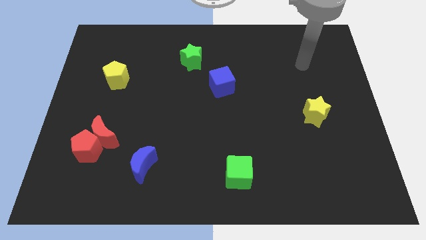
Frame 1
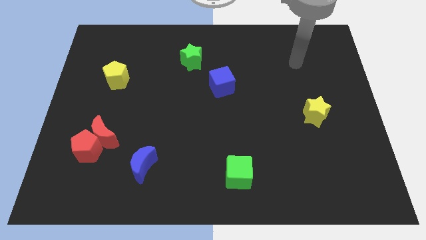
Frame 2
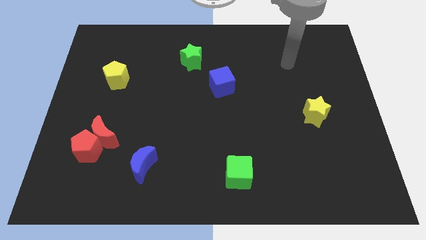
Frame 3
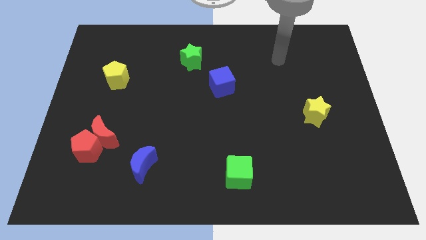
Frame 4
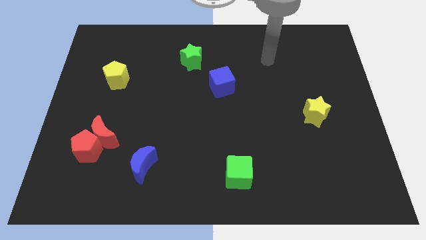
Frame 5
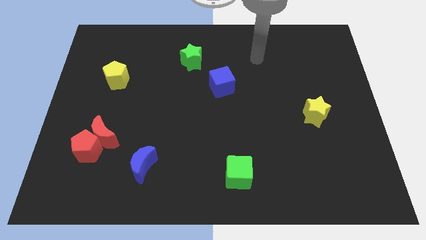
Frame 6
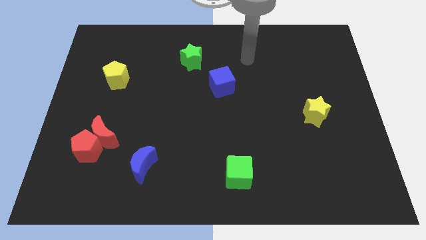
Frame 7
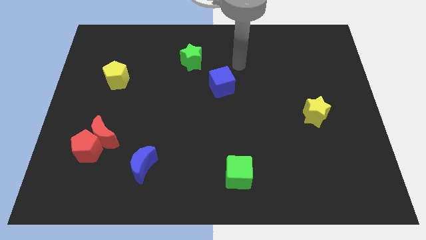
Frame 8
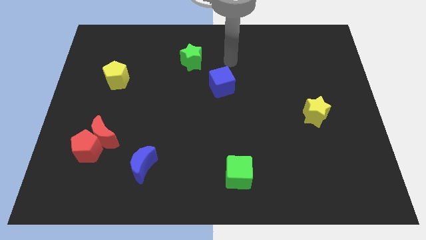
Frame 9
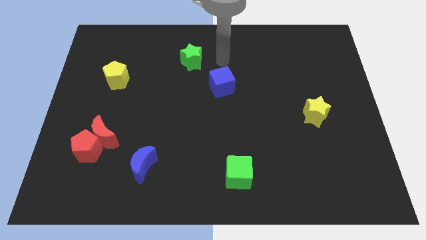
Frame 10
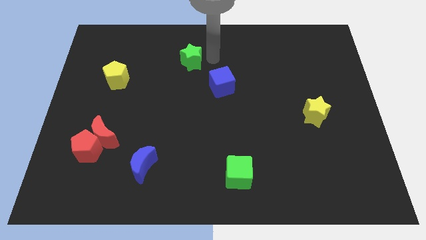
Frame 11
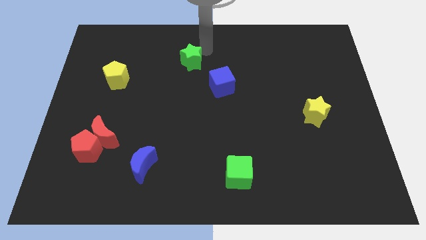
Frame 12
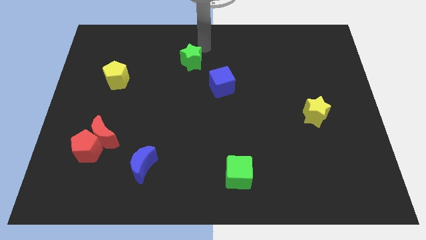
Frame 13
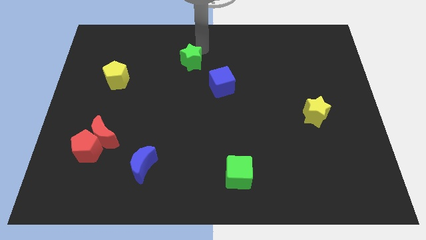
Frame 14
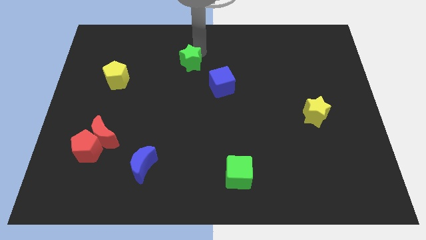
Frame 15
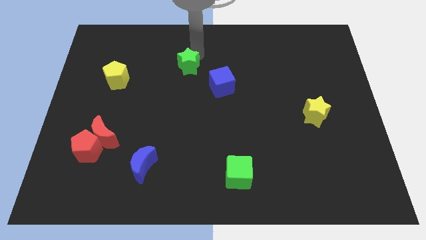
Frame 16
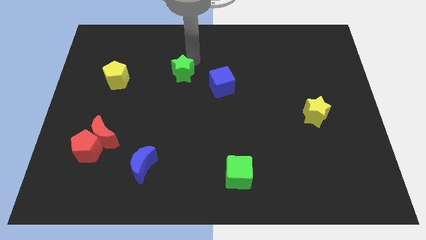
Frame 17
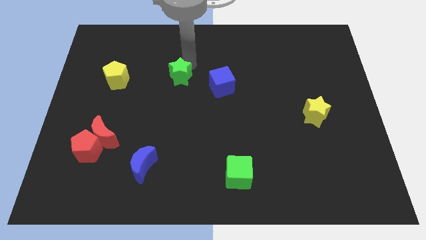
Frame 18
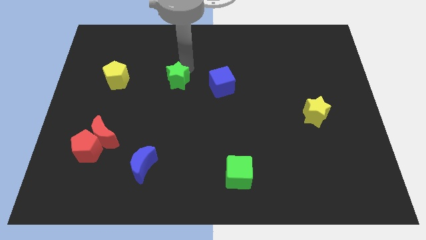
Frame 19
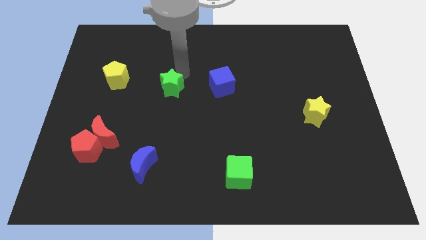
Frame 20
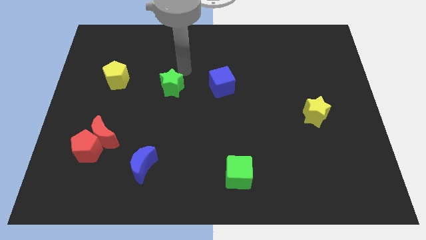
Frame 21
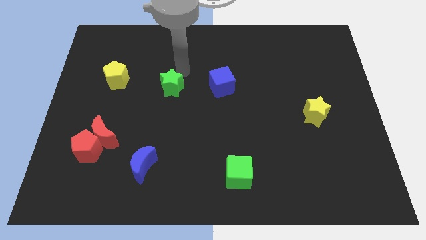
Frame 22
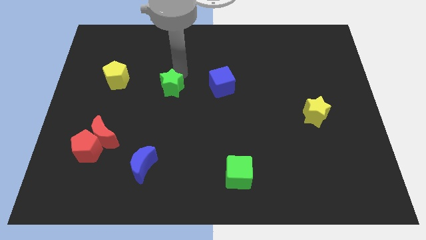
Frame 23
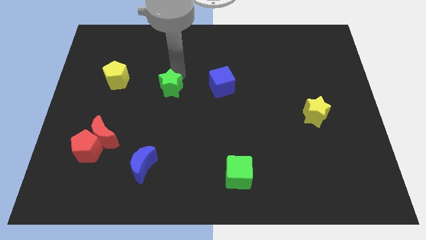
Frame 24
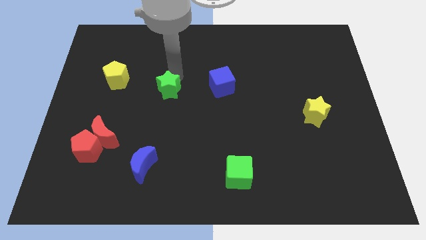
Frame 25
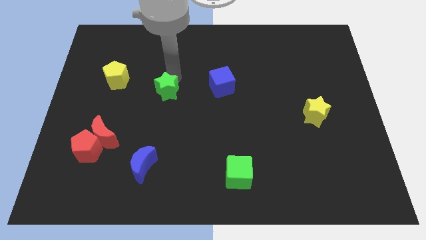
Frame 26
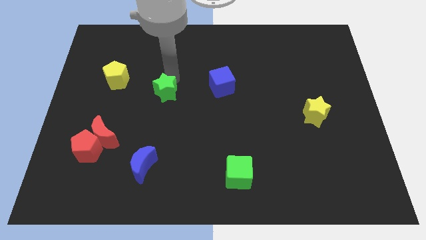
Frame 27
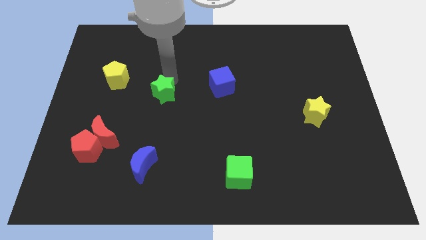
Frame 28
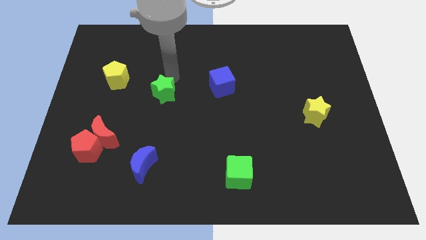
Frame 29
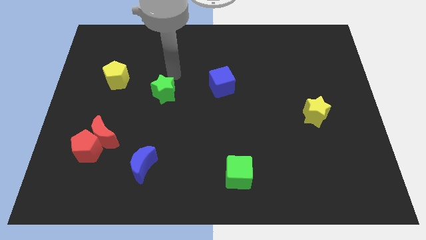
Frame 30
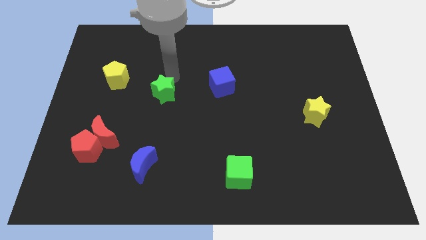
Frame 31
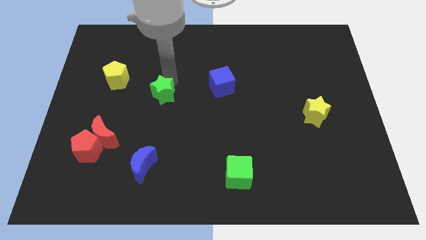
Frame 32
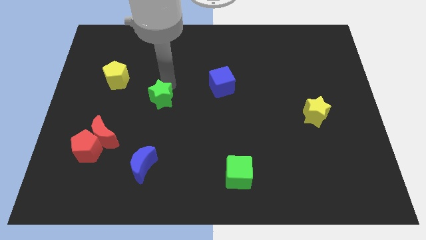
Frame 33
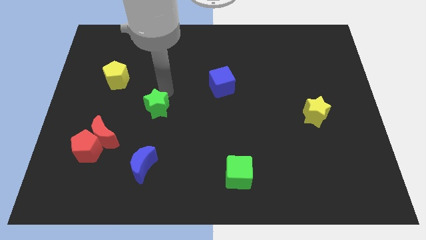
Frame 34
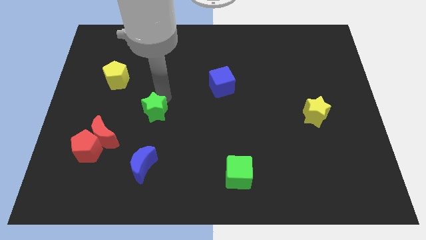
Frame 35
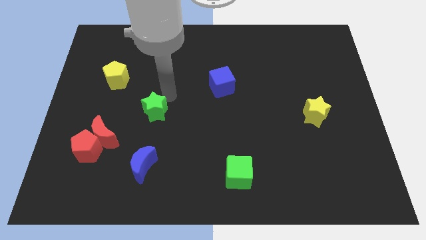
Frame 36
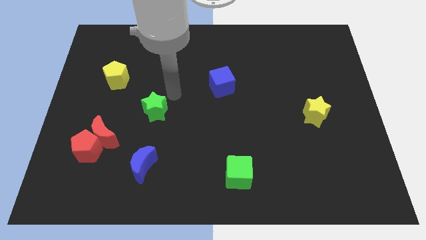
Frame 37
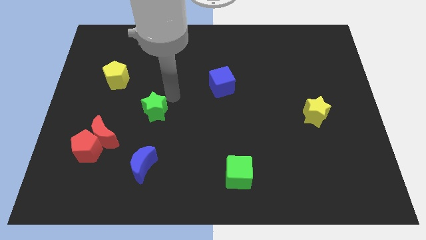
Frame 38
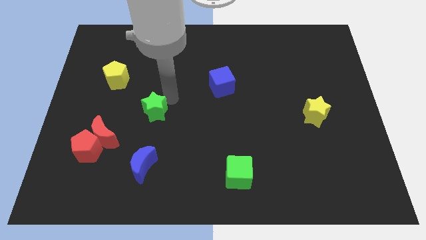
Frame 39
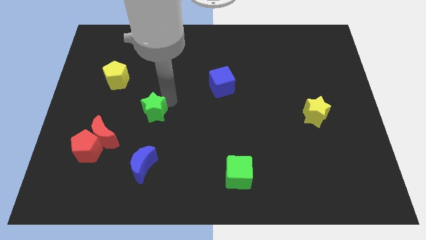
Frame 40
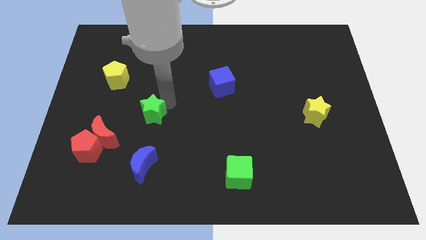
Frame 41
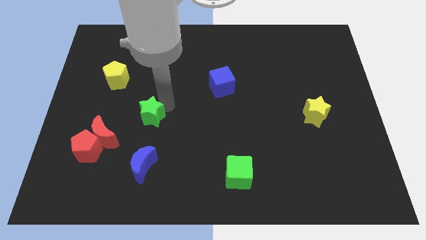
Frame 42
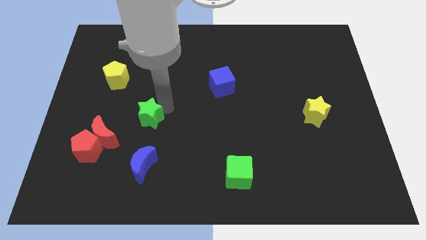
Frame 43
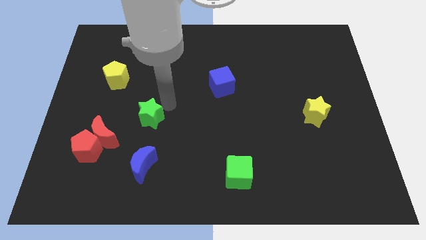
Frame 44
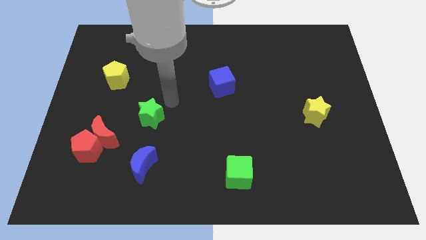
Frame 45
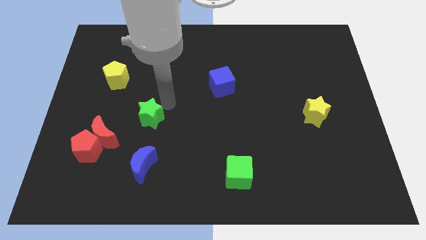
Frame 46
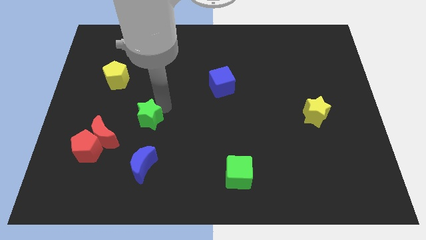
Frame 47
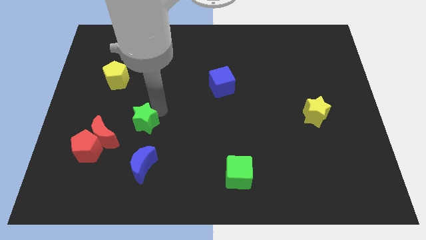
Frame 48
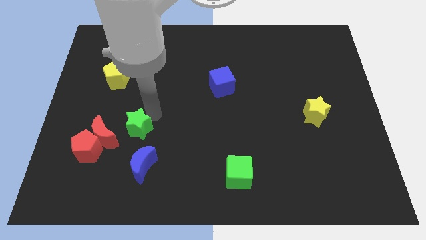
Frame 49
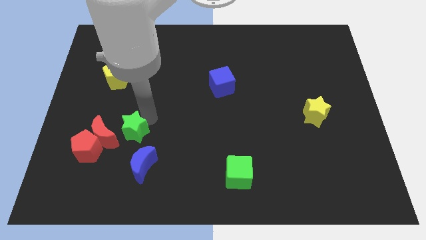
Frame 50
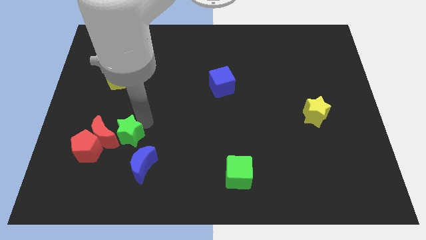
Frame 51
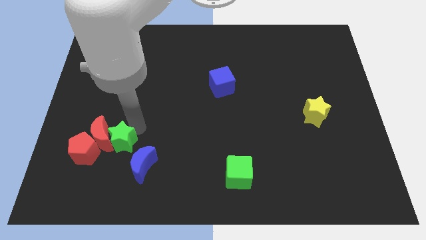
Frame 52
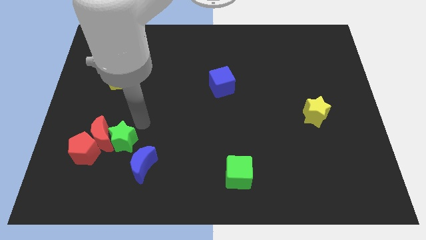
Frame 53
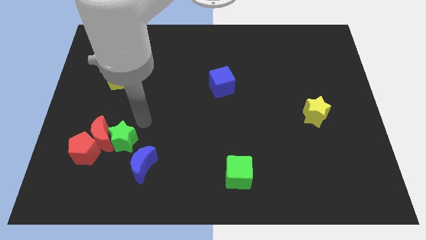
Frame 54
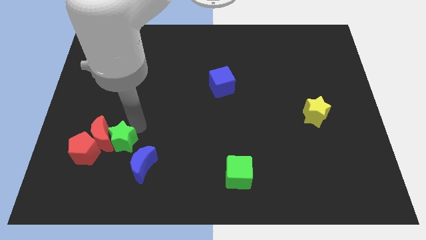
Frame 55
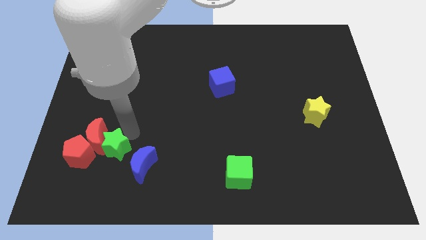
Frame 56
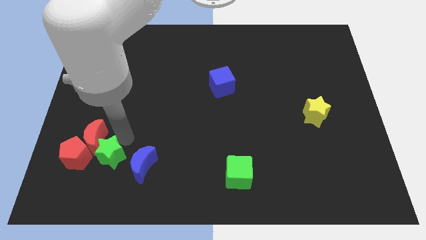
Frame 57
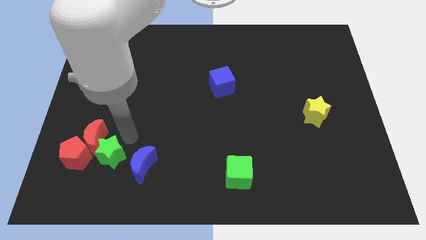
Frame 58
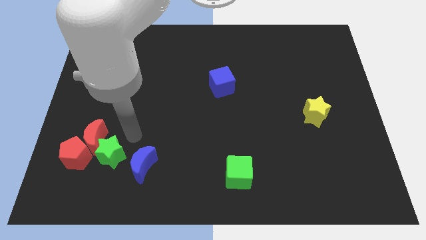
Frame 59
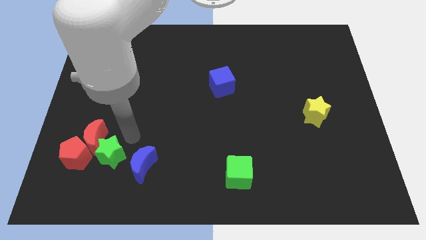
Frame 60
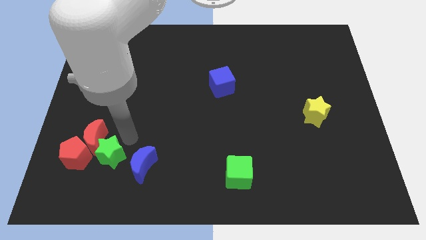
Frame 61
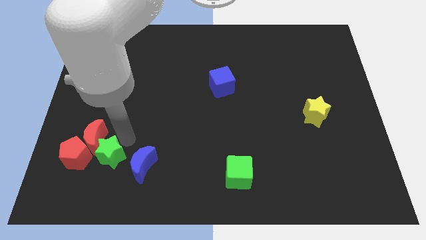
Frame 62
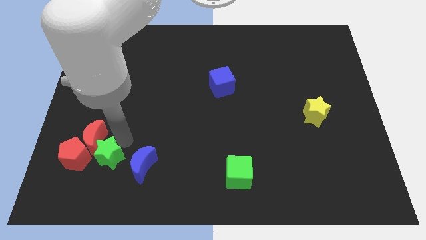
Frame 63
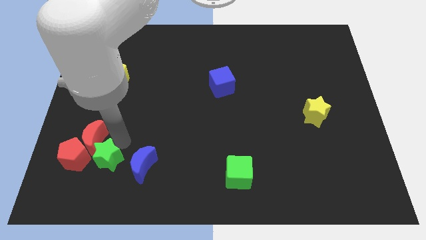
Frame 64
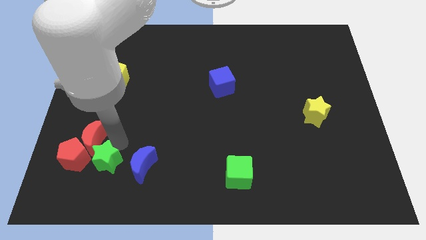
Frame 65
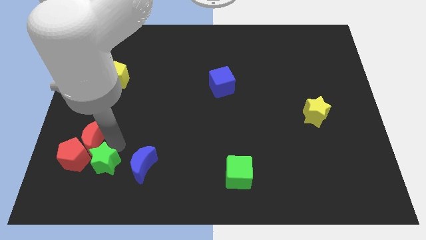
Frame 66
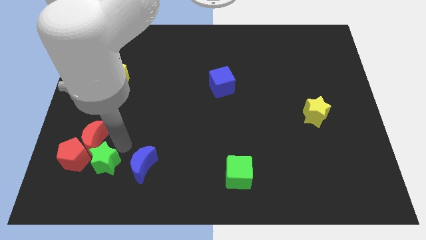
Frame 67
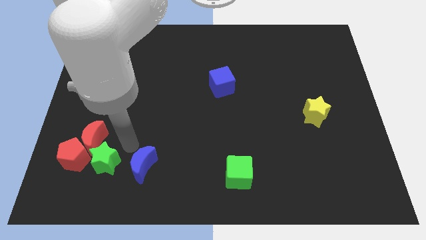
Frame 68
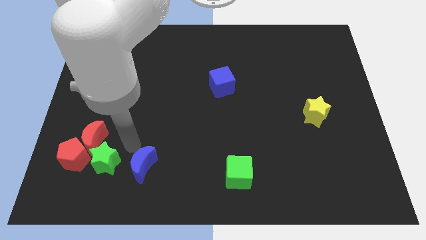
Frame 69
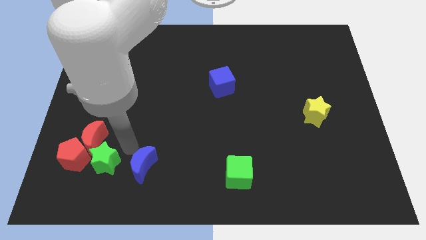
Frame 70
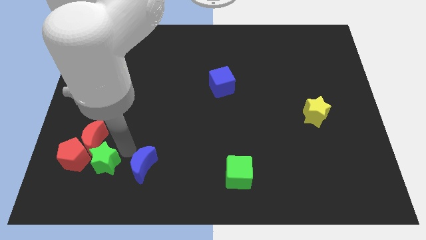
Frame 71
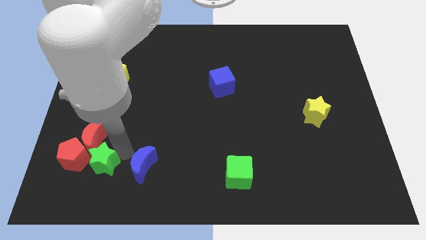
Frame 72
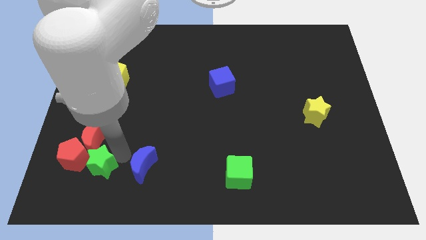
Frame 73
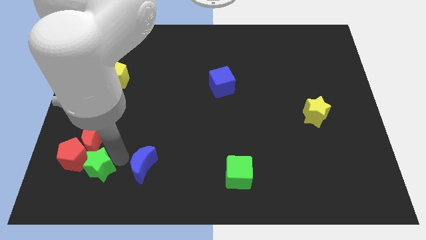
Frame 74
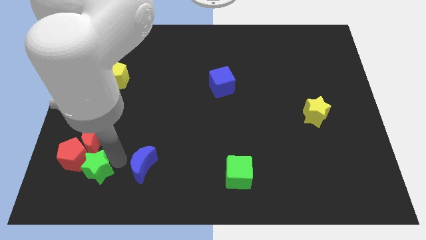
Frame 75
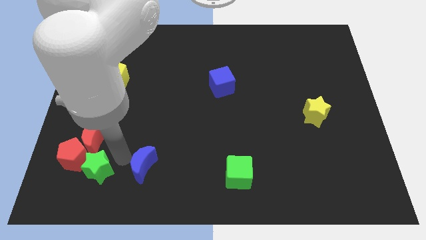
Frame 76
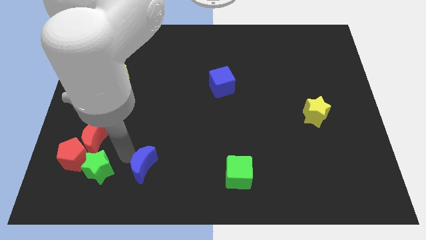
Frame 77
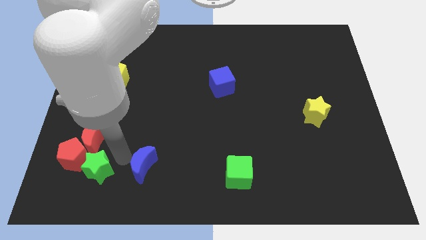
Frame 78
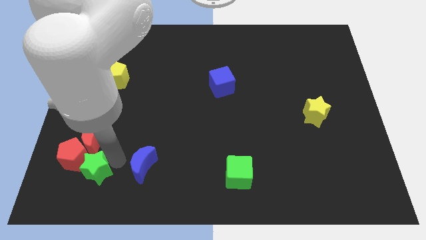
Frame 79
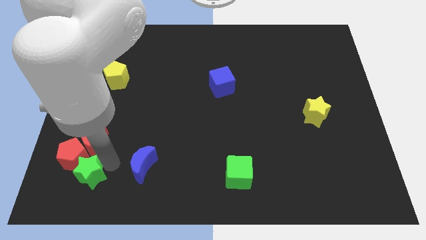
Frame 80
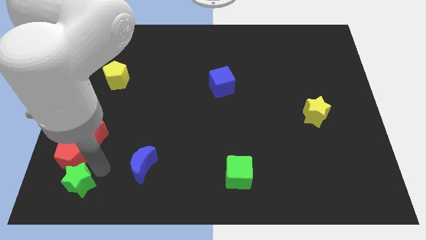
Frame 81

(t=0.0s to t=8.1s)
move the green star to the bottom left
